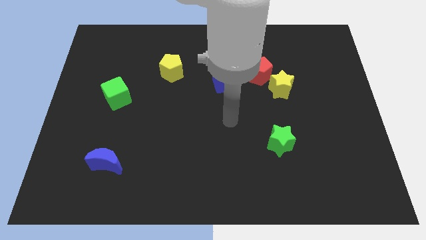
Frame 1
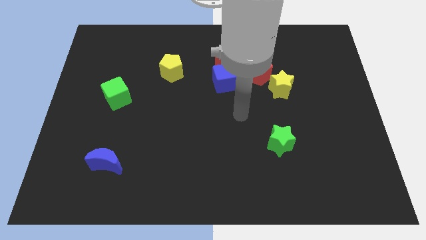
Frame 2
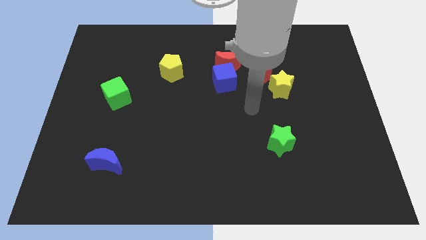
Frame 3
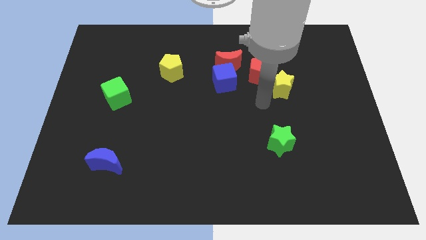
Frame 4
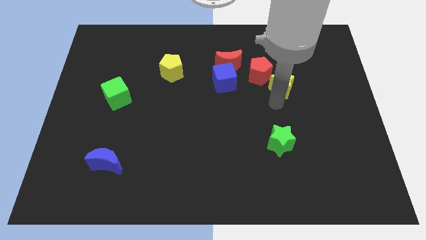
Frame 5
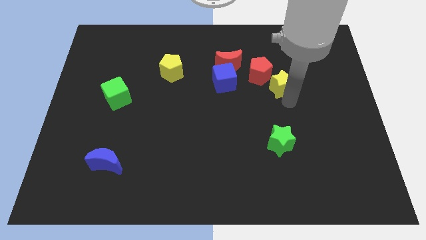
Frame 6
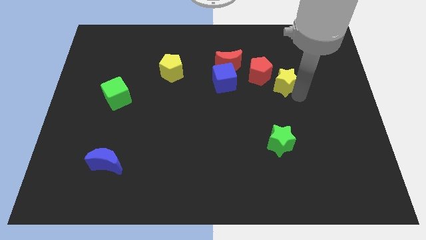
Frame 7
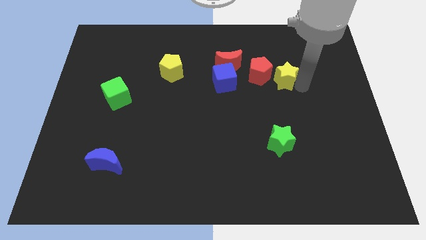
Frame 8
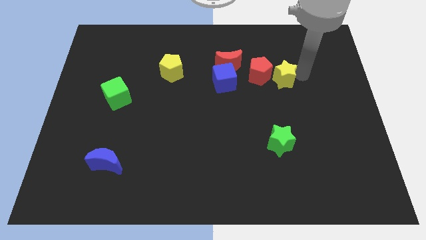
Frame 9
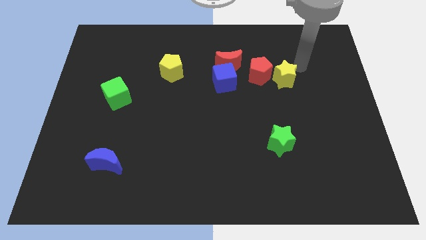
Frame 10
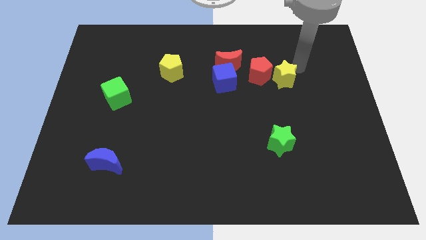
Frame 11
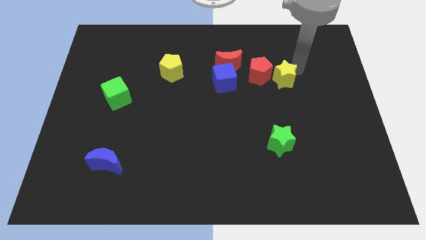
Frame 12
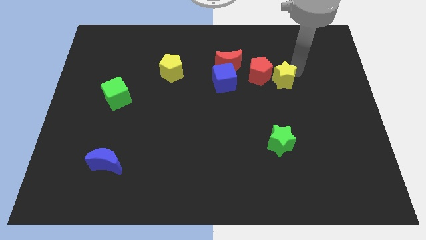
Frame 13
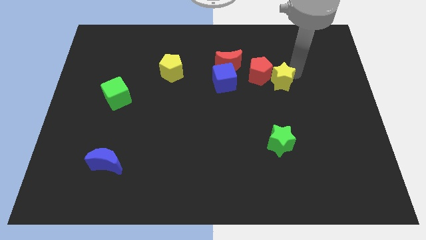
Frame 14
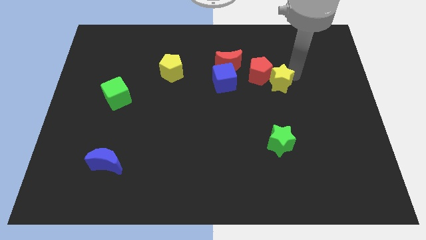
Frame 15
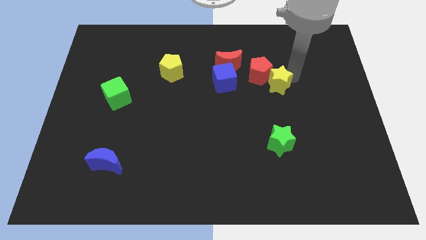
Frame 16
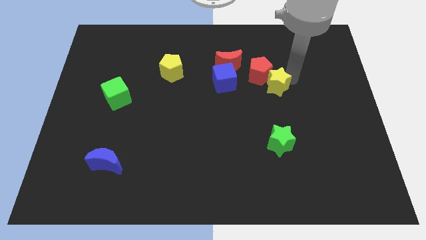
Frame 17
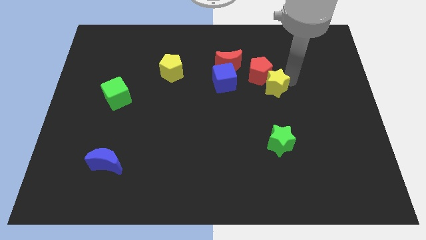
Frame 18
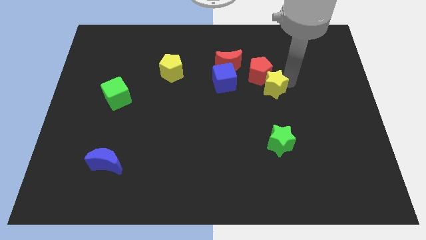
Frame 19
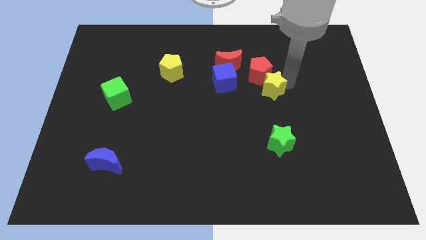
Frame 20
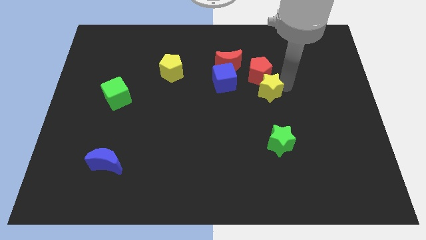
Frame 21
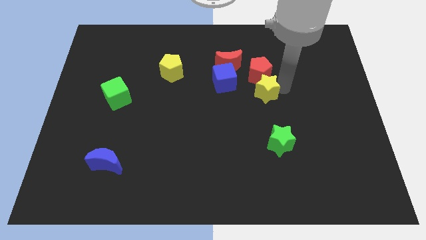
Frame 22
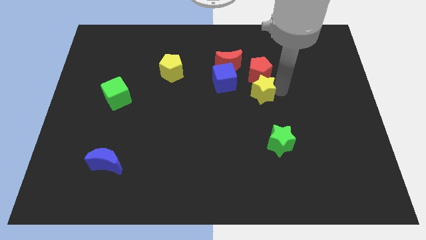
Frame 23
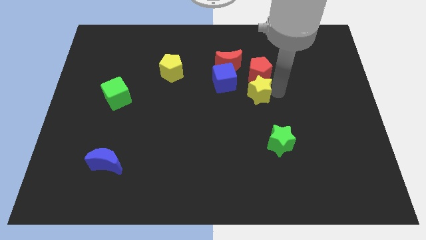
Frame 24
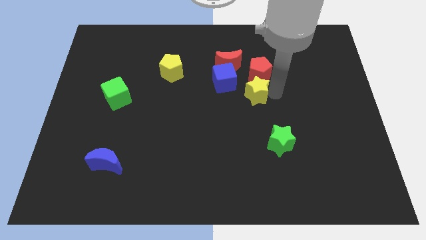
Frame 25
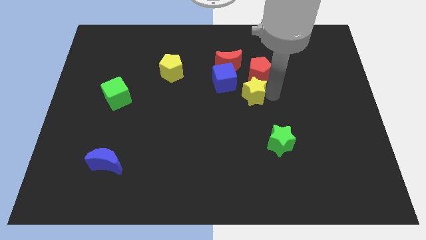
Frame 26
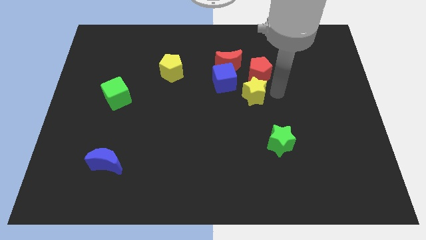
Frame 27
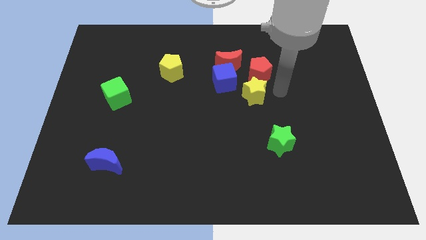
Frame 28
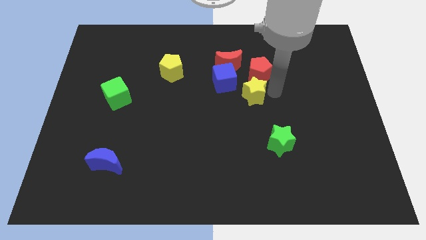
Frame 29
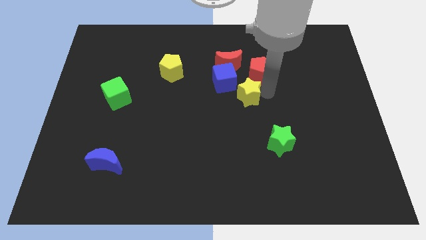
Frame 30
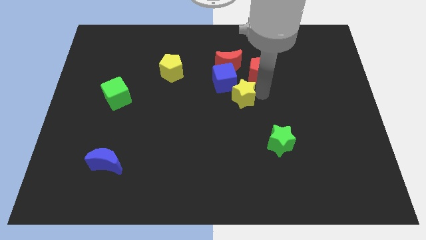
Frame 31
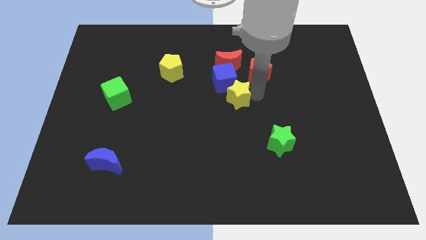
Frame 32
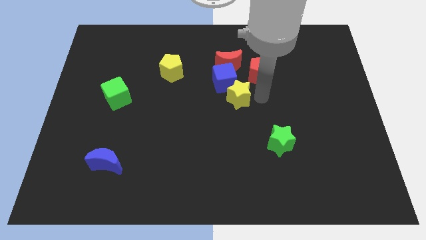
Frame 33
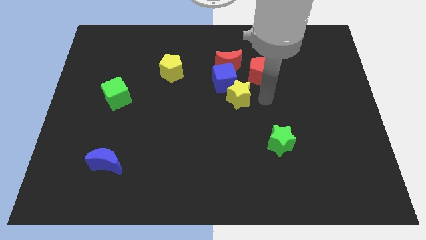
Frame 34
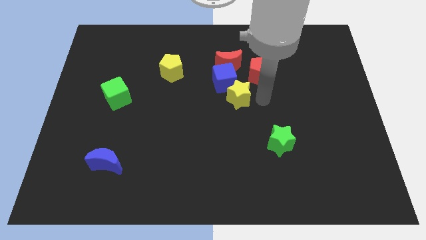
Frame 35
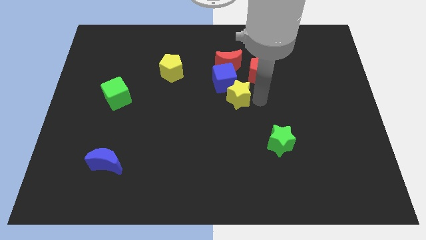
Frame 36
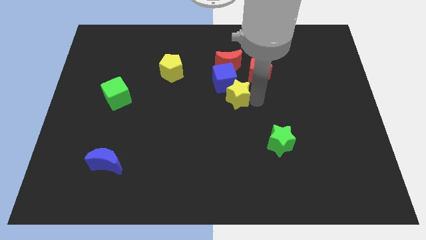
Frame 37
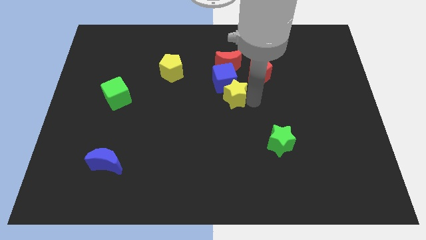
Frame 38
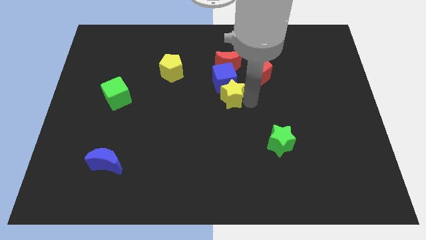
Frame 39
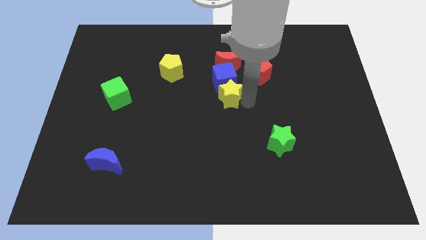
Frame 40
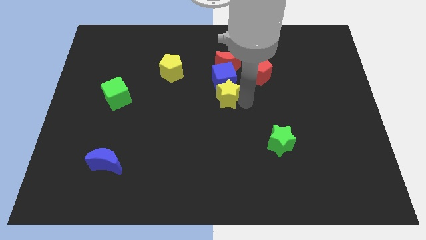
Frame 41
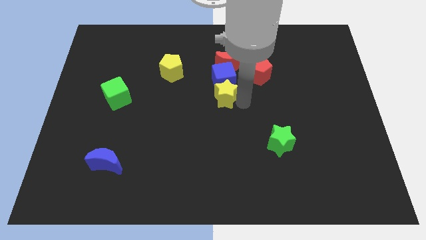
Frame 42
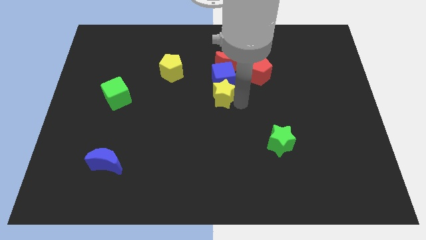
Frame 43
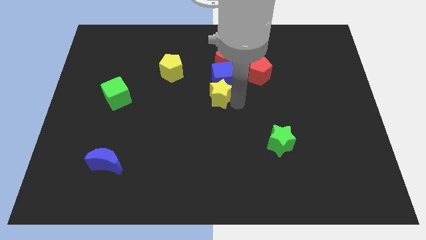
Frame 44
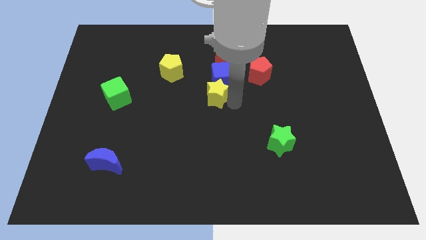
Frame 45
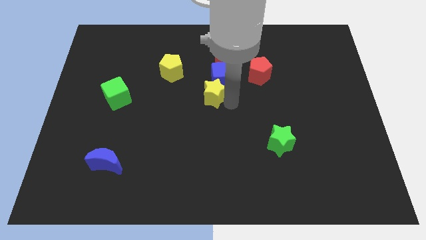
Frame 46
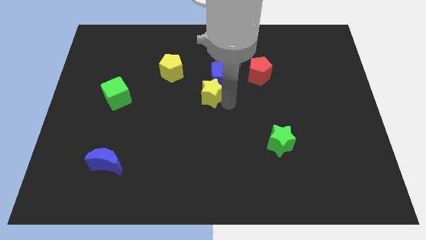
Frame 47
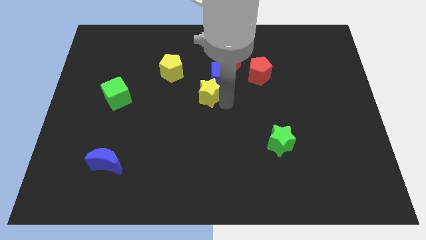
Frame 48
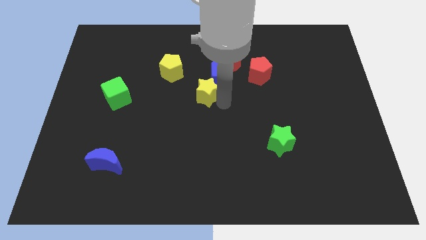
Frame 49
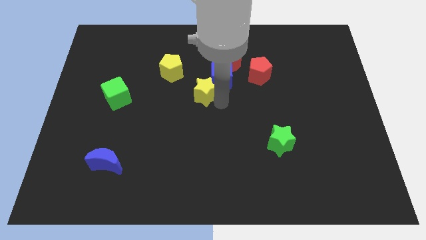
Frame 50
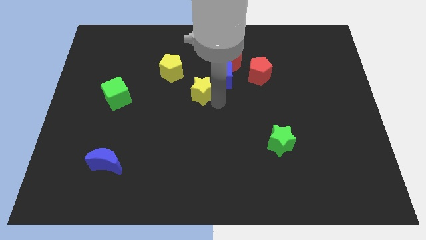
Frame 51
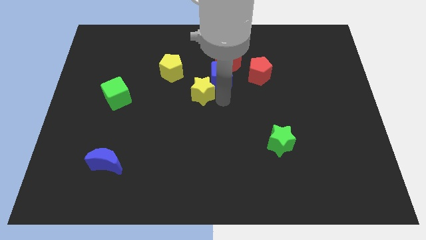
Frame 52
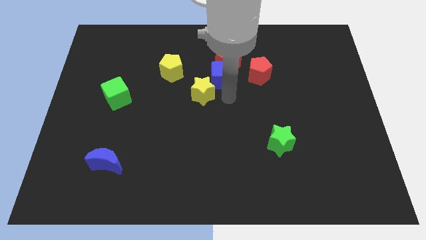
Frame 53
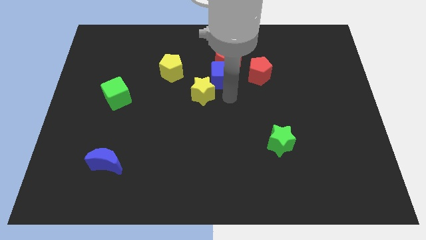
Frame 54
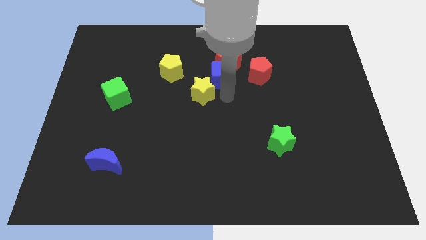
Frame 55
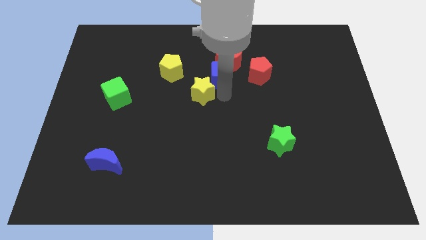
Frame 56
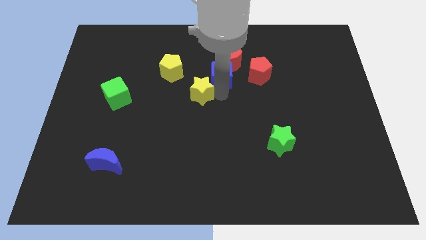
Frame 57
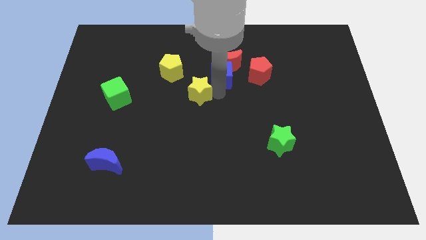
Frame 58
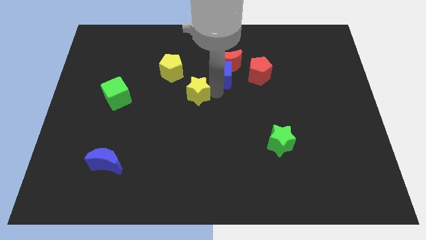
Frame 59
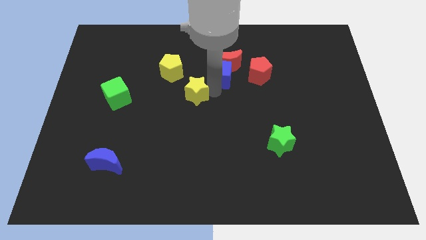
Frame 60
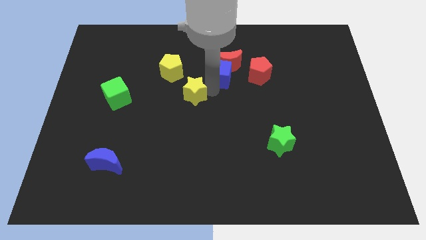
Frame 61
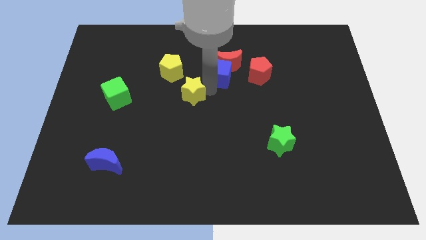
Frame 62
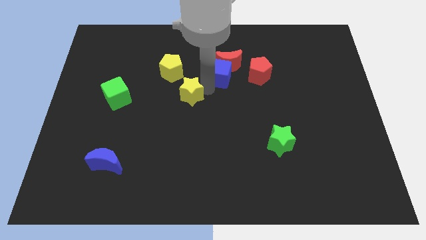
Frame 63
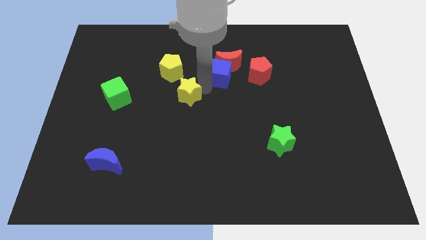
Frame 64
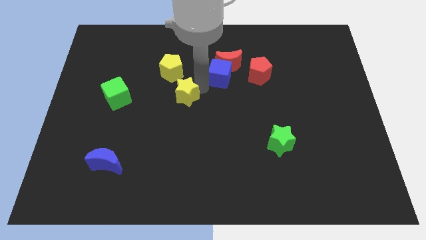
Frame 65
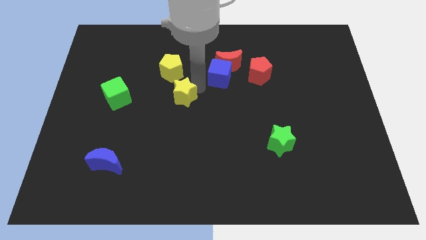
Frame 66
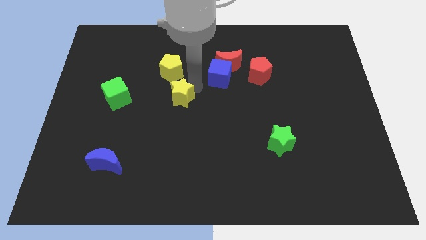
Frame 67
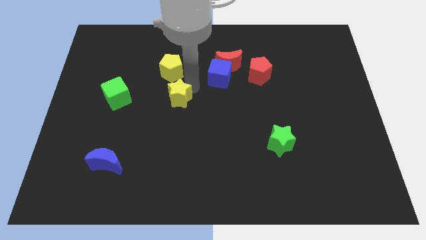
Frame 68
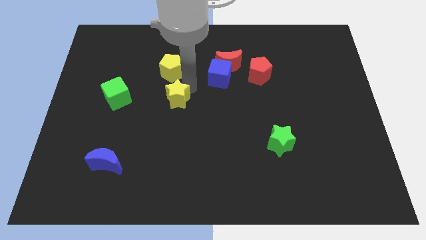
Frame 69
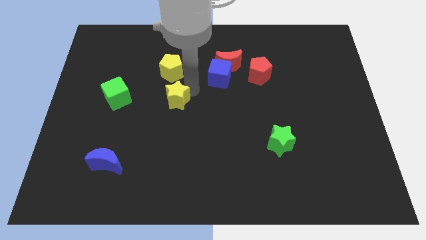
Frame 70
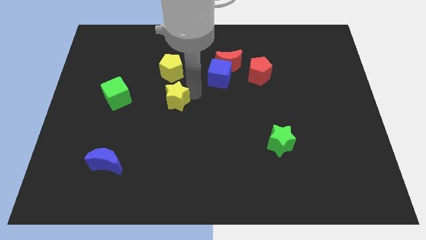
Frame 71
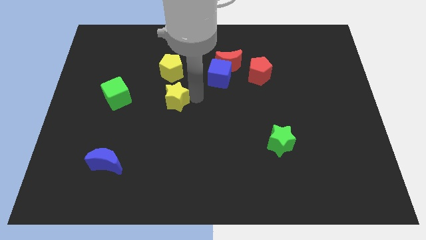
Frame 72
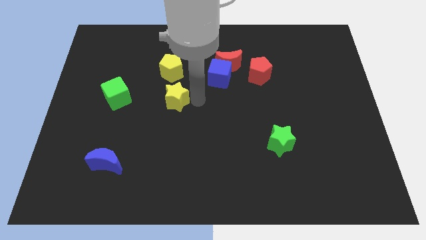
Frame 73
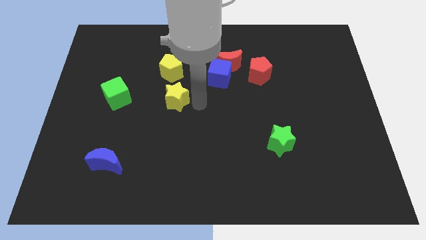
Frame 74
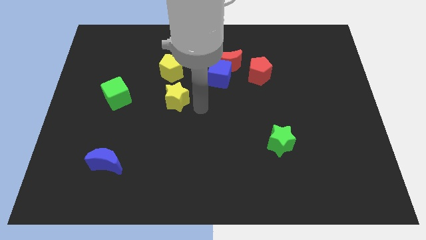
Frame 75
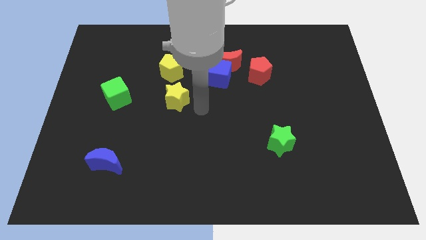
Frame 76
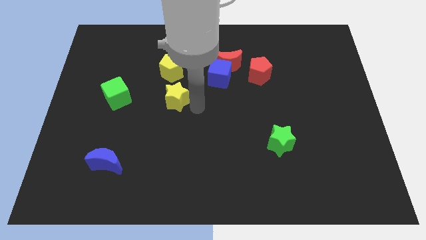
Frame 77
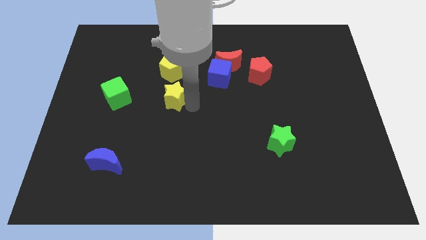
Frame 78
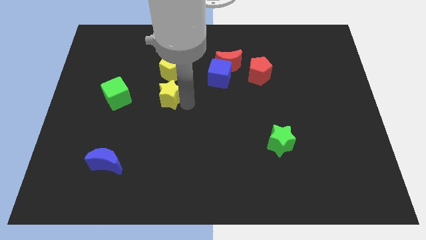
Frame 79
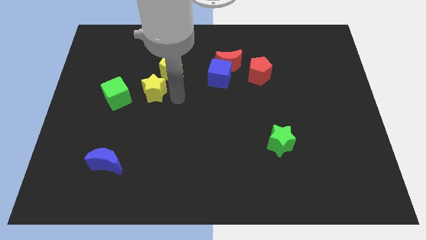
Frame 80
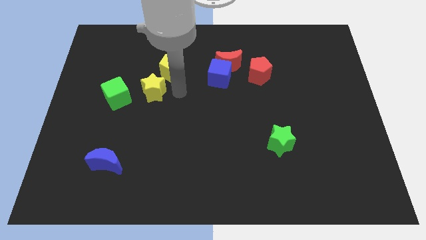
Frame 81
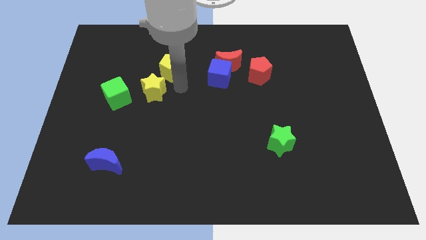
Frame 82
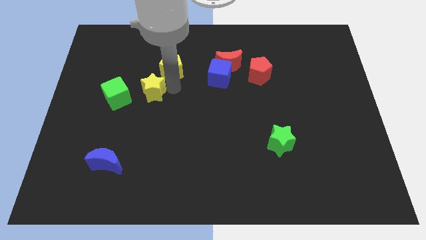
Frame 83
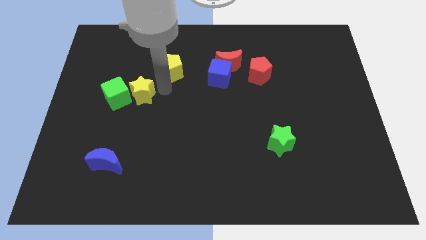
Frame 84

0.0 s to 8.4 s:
slide the yellow star to the green cube
